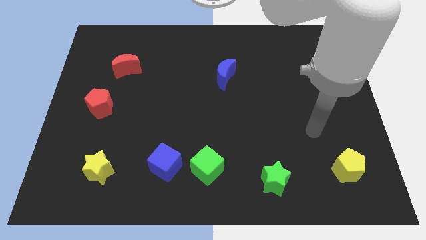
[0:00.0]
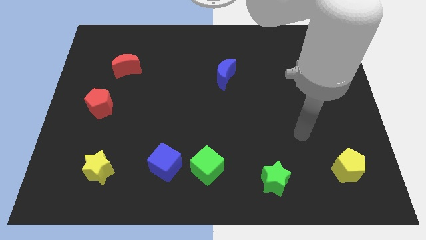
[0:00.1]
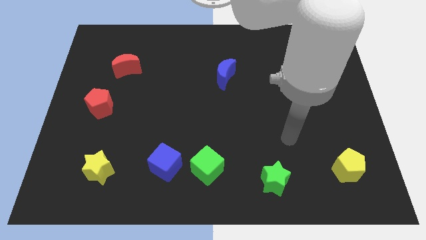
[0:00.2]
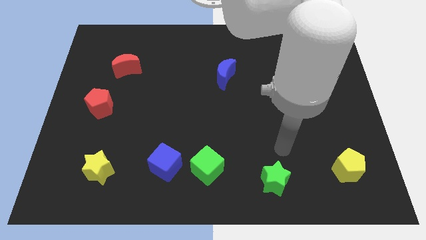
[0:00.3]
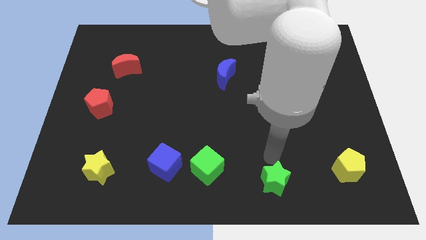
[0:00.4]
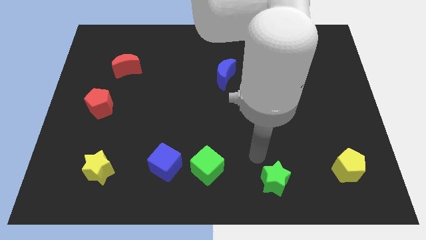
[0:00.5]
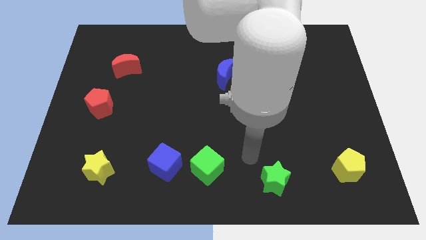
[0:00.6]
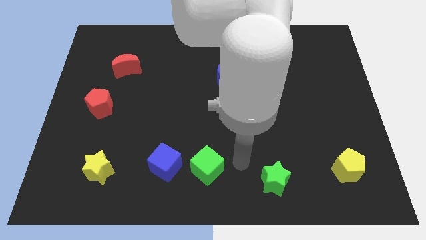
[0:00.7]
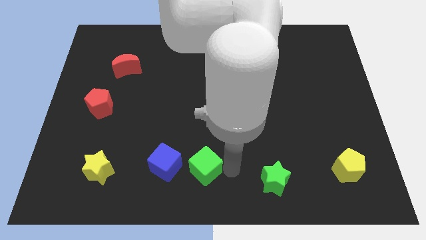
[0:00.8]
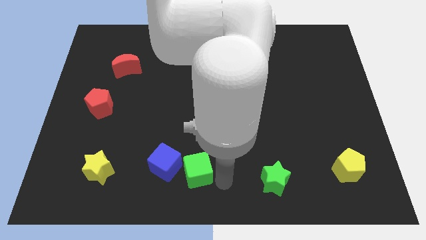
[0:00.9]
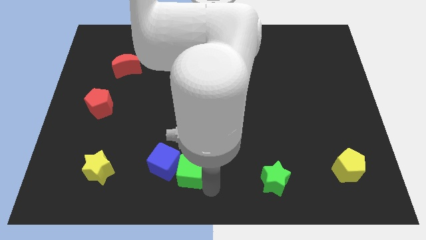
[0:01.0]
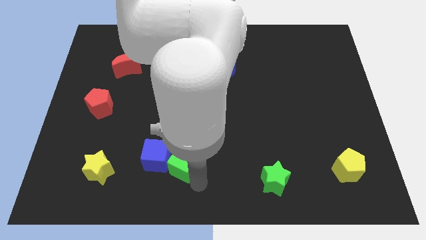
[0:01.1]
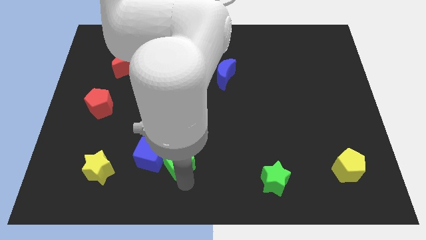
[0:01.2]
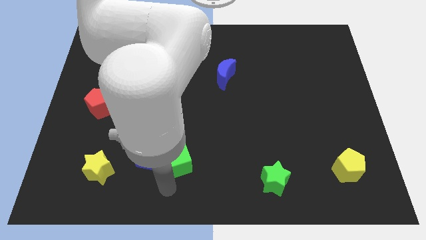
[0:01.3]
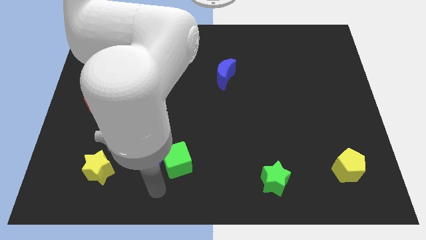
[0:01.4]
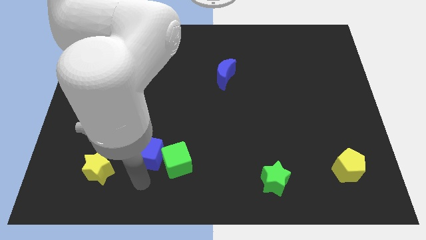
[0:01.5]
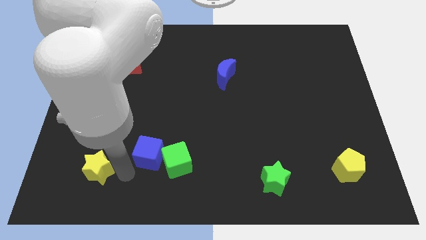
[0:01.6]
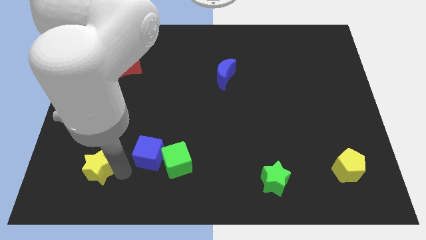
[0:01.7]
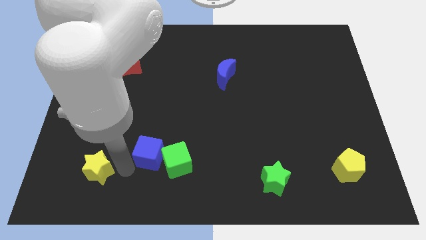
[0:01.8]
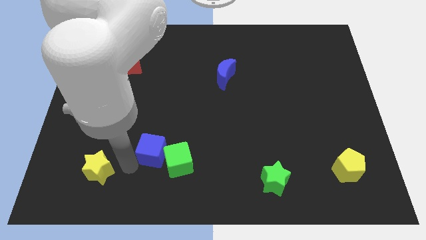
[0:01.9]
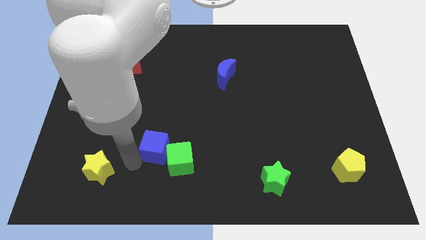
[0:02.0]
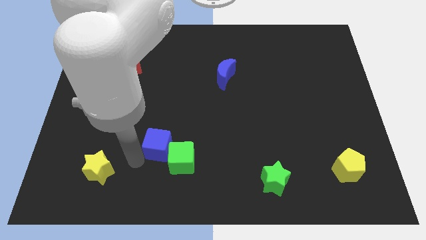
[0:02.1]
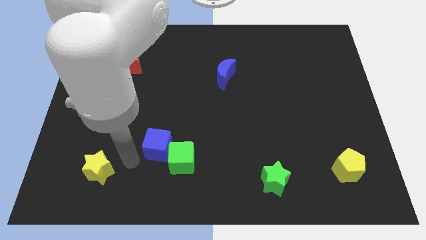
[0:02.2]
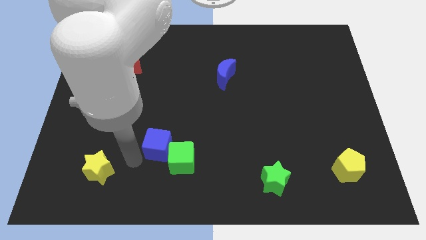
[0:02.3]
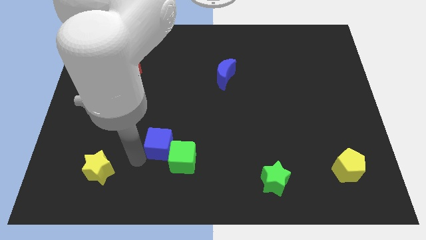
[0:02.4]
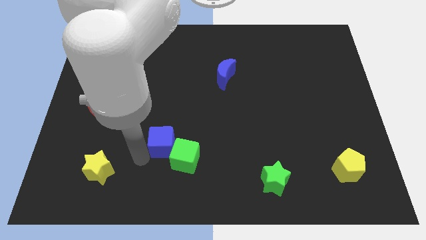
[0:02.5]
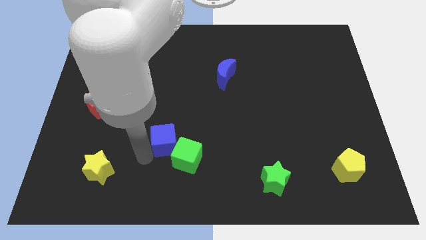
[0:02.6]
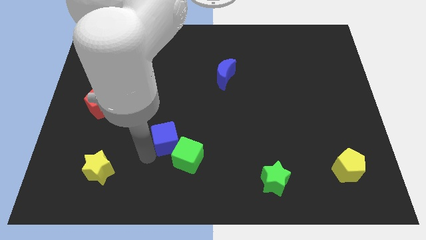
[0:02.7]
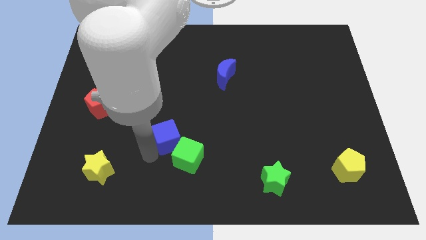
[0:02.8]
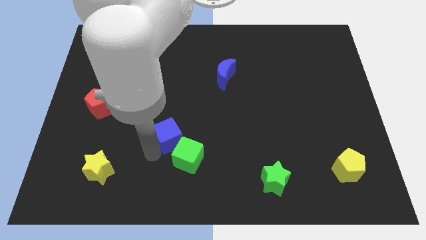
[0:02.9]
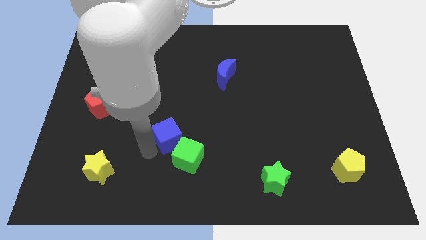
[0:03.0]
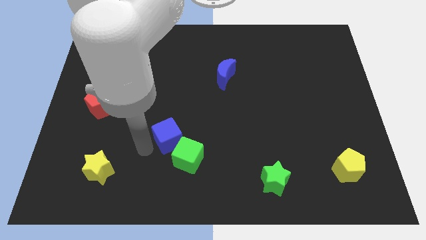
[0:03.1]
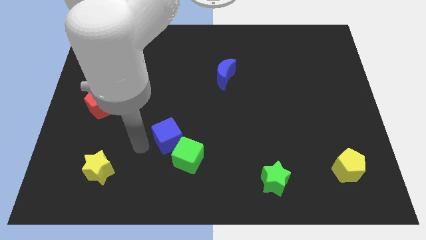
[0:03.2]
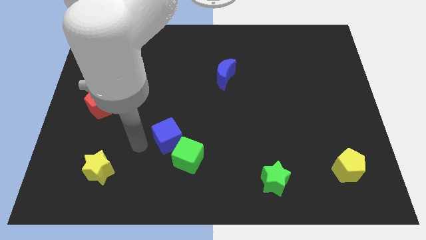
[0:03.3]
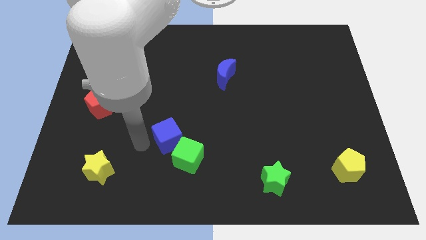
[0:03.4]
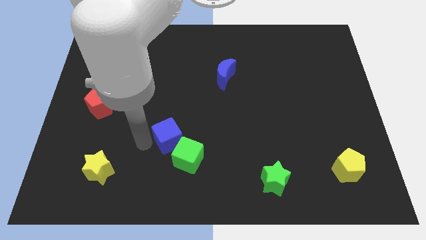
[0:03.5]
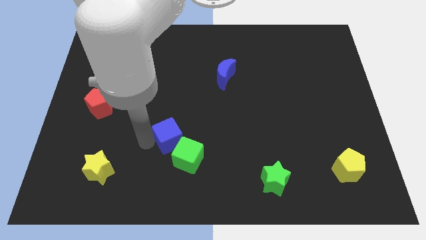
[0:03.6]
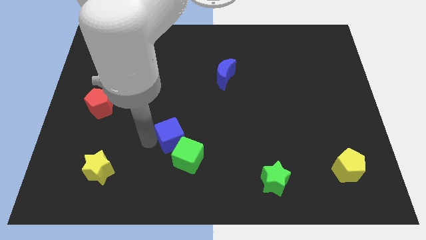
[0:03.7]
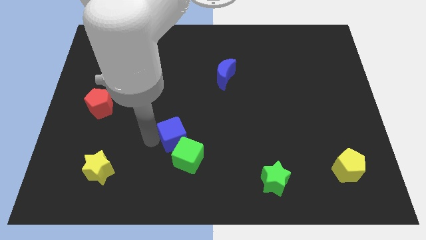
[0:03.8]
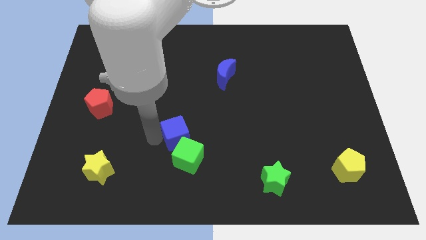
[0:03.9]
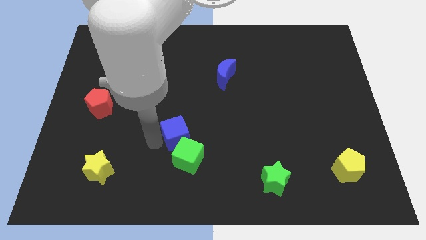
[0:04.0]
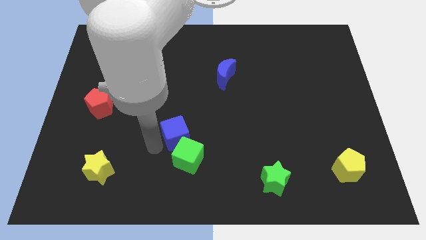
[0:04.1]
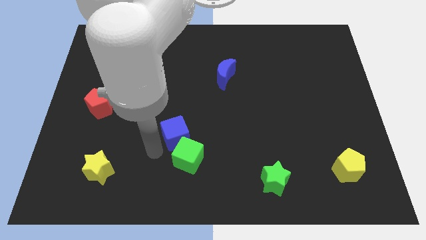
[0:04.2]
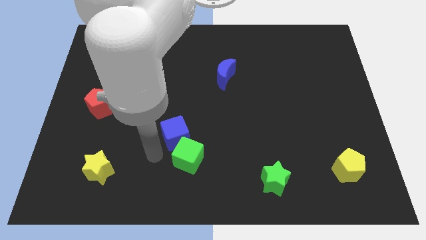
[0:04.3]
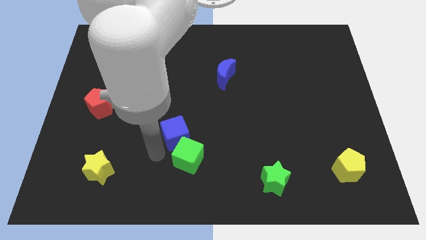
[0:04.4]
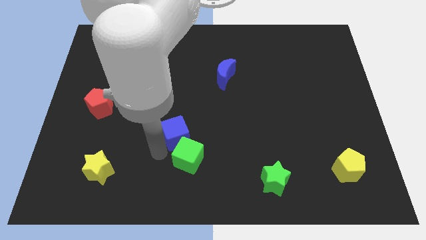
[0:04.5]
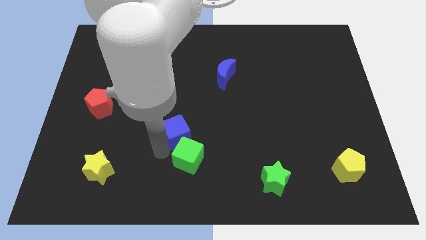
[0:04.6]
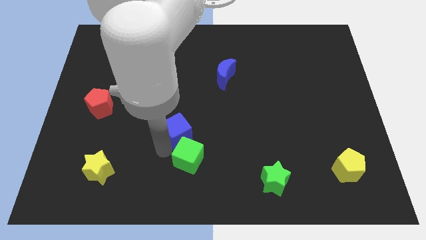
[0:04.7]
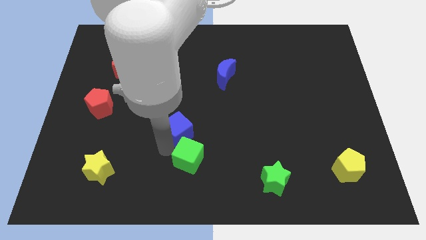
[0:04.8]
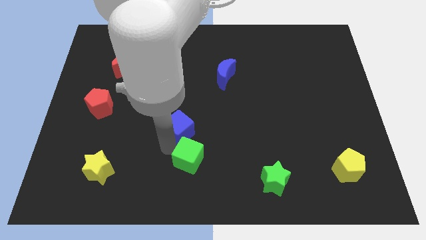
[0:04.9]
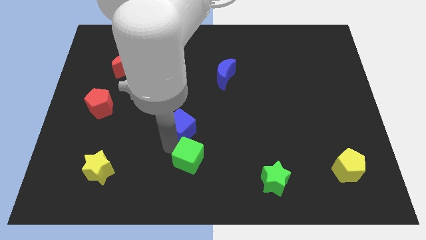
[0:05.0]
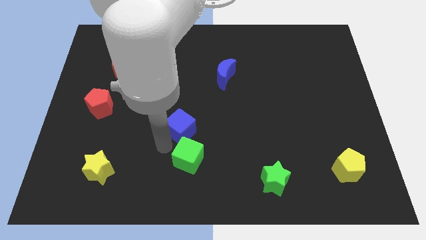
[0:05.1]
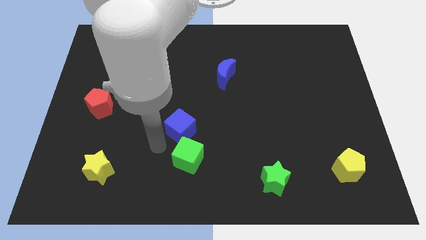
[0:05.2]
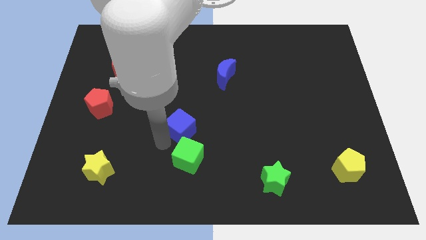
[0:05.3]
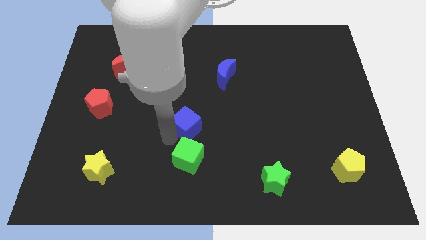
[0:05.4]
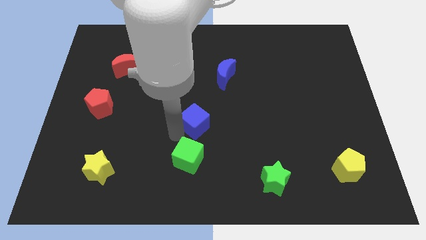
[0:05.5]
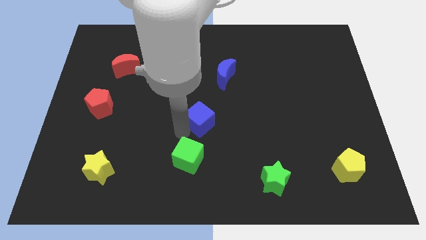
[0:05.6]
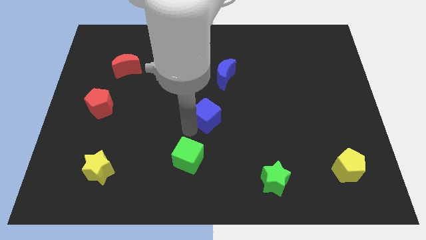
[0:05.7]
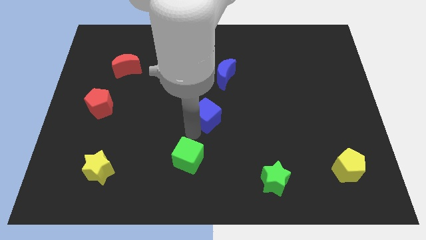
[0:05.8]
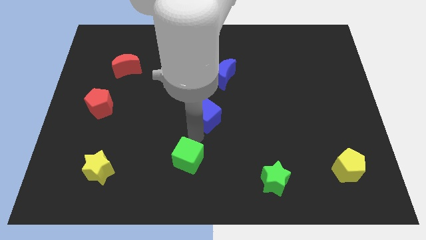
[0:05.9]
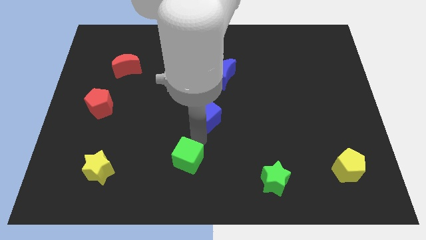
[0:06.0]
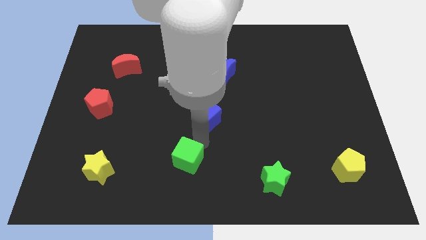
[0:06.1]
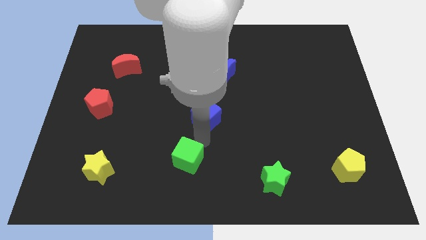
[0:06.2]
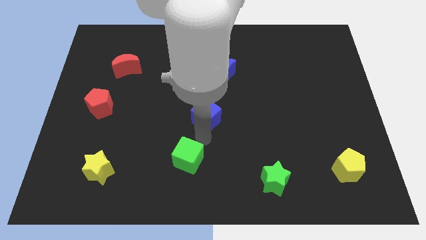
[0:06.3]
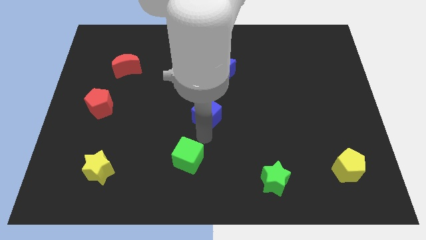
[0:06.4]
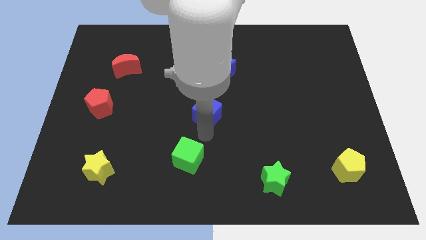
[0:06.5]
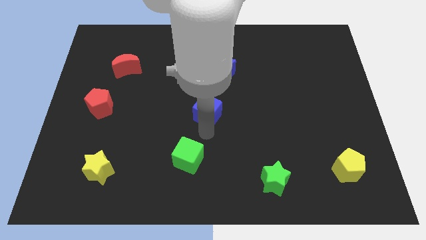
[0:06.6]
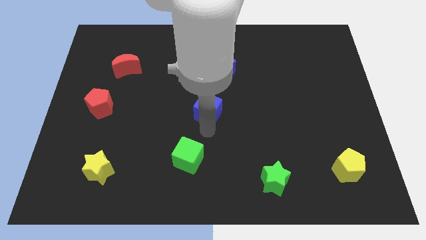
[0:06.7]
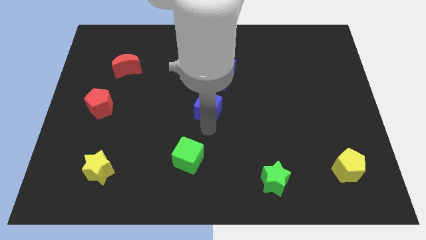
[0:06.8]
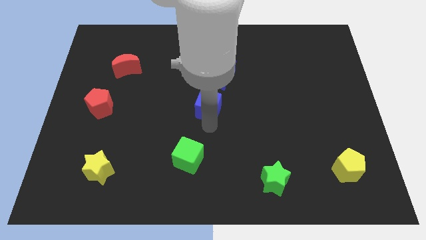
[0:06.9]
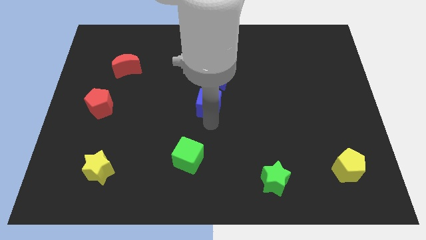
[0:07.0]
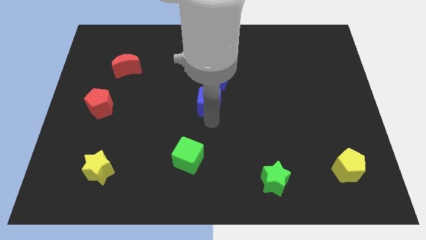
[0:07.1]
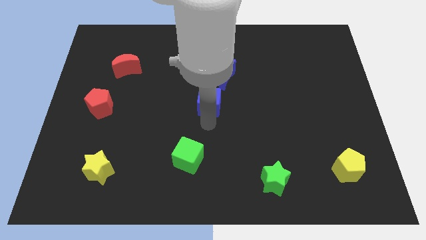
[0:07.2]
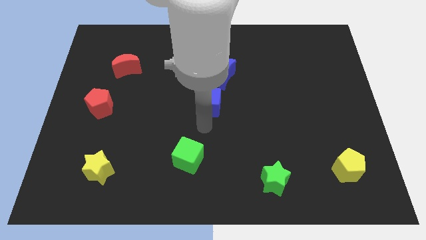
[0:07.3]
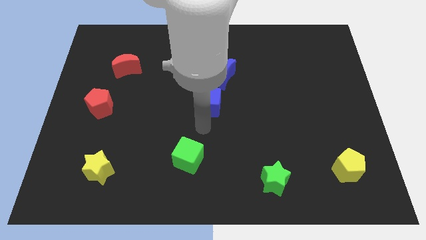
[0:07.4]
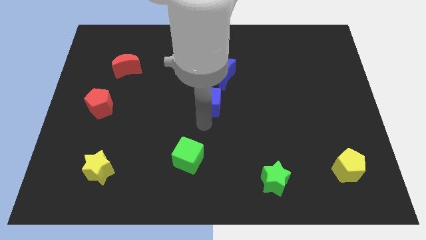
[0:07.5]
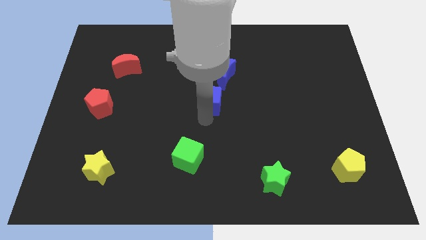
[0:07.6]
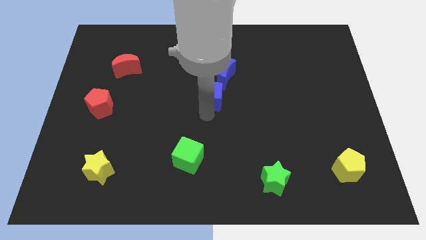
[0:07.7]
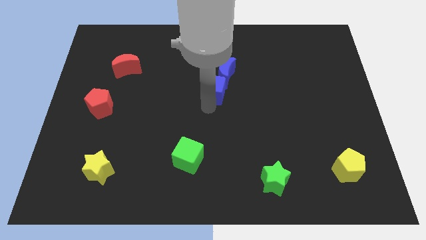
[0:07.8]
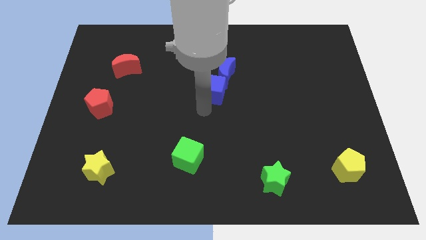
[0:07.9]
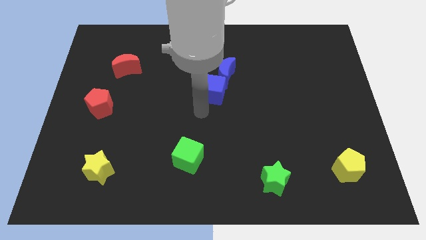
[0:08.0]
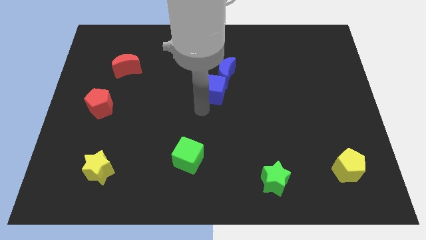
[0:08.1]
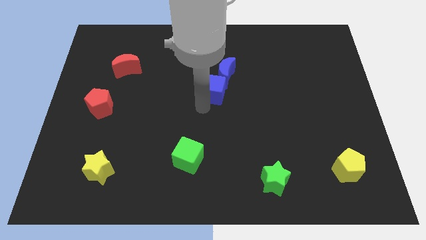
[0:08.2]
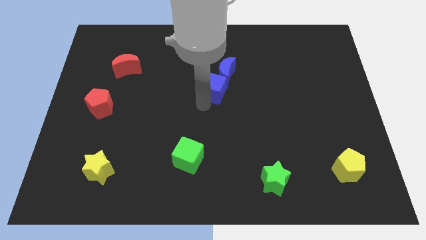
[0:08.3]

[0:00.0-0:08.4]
slide the blue cube close to the blue moon
